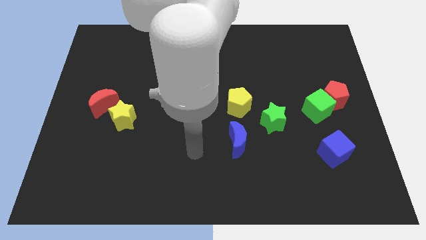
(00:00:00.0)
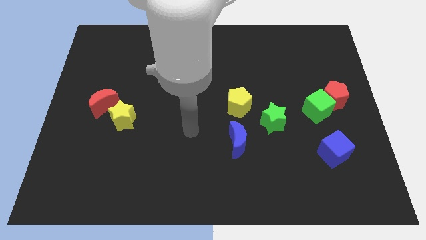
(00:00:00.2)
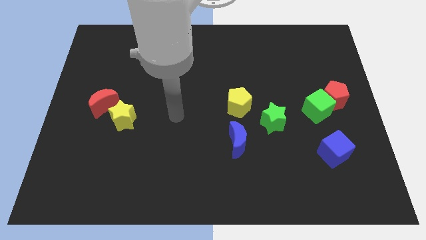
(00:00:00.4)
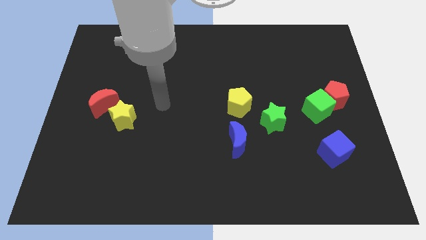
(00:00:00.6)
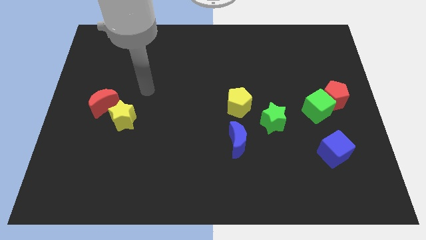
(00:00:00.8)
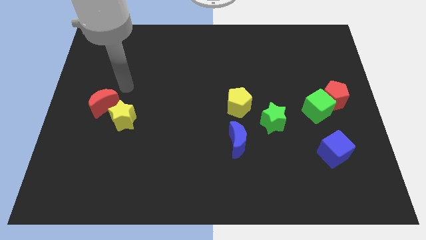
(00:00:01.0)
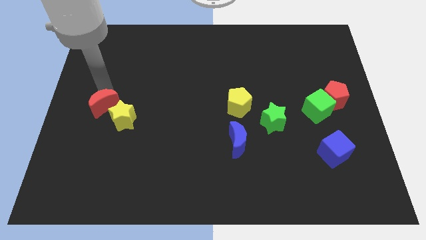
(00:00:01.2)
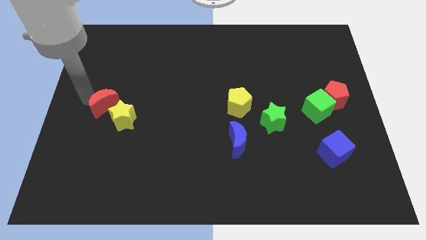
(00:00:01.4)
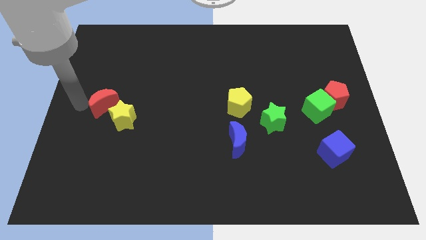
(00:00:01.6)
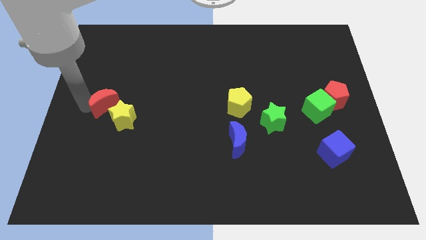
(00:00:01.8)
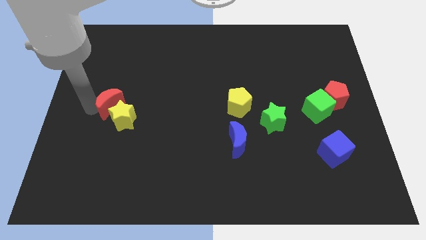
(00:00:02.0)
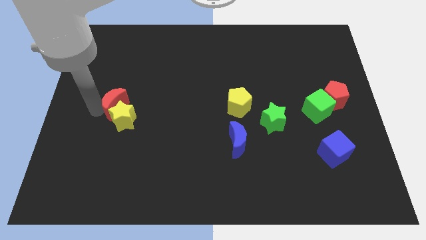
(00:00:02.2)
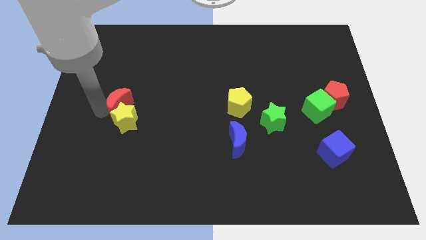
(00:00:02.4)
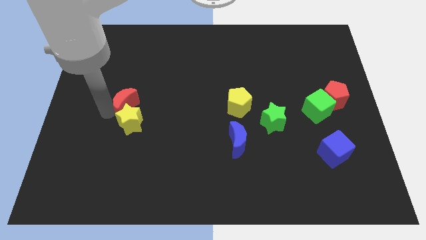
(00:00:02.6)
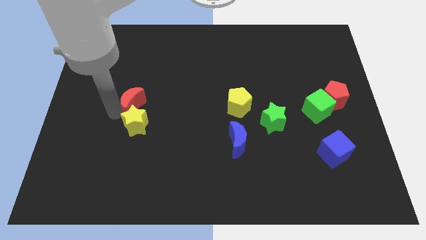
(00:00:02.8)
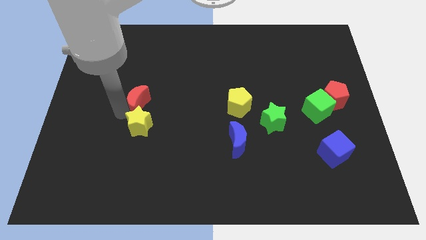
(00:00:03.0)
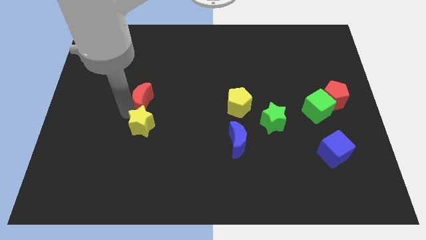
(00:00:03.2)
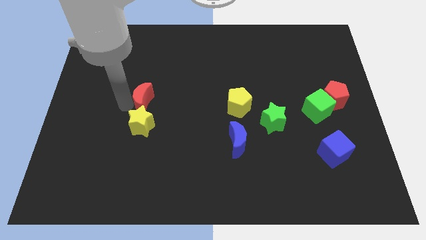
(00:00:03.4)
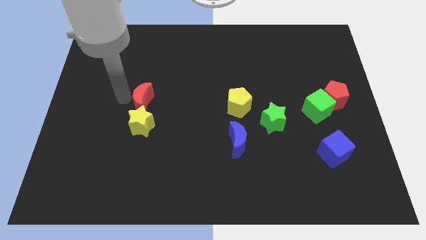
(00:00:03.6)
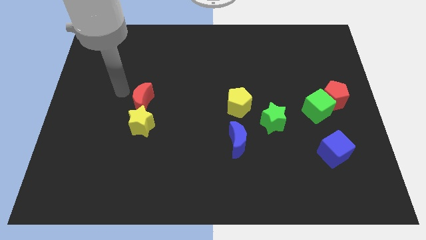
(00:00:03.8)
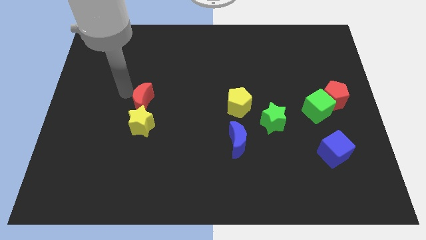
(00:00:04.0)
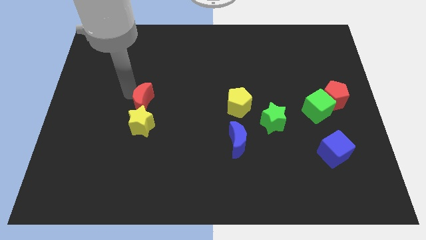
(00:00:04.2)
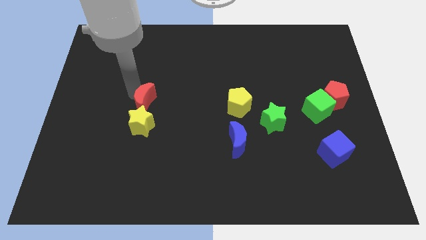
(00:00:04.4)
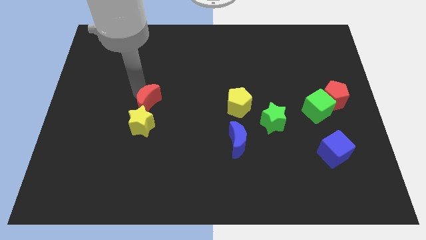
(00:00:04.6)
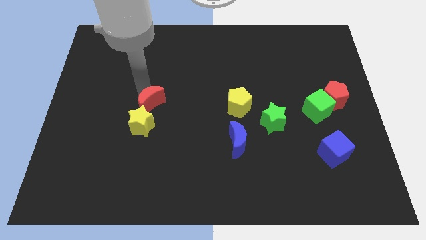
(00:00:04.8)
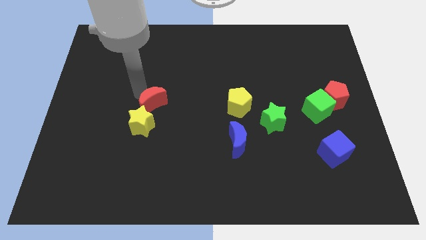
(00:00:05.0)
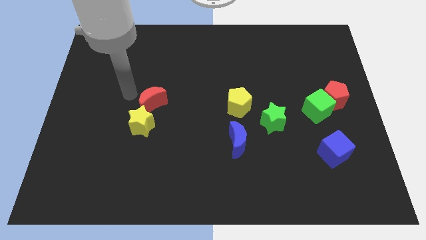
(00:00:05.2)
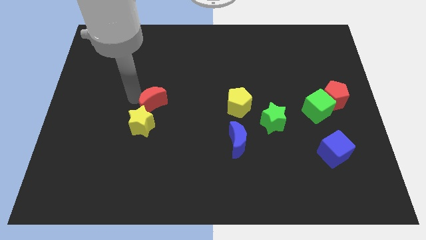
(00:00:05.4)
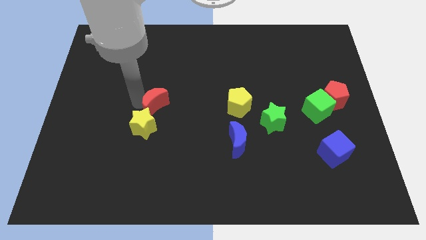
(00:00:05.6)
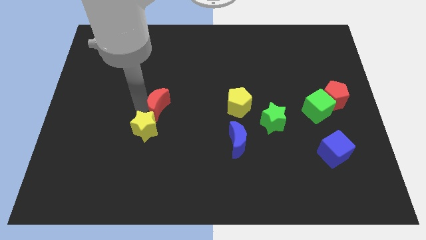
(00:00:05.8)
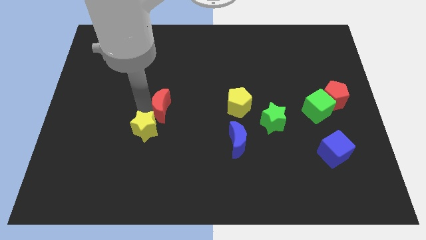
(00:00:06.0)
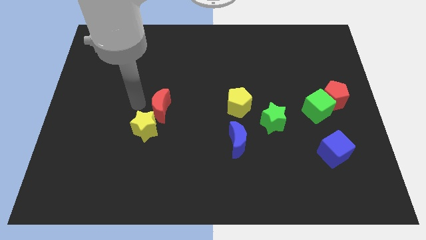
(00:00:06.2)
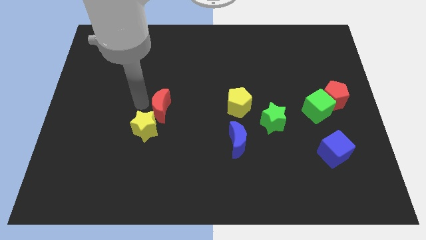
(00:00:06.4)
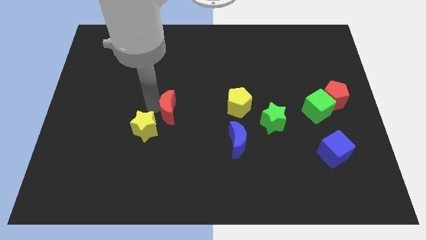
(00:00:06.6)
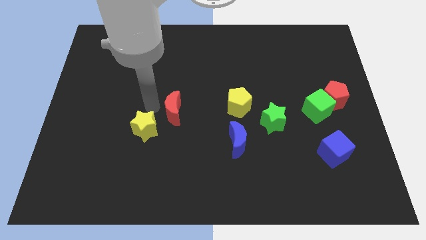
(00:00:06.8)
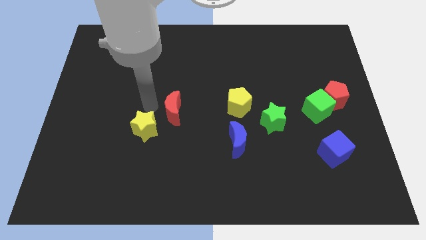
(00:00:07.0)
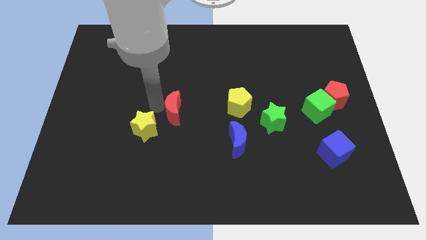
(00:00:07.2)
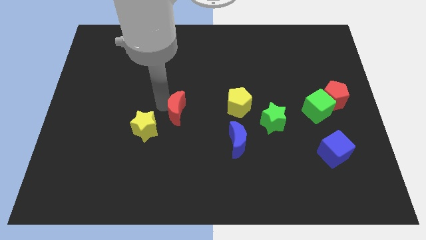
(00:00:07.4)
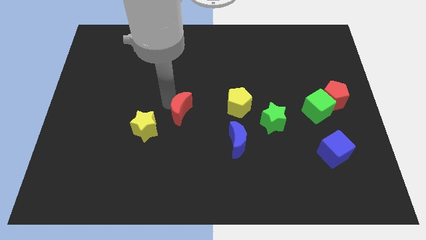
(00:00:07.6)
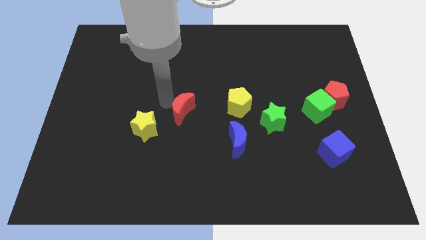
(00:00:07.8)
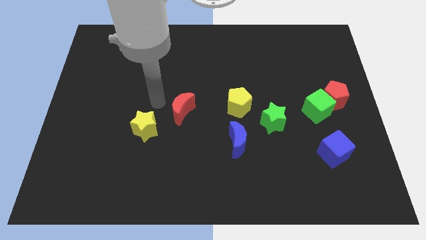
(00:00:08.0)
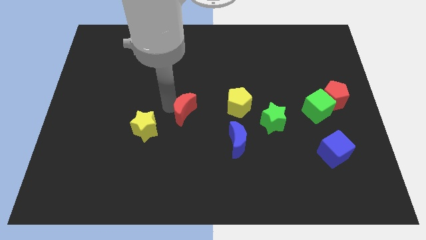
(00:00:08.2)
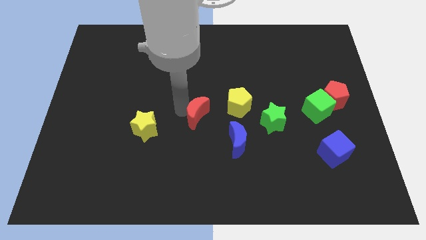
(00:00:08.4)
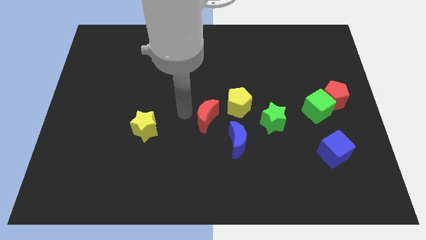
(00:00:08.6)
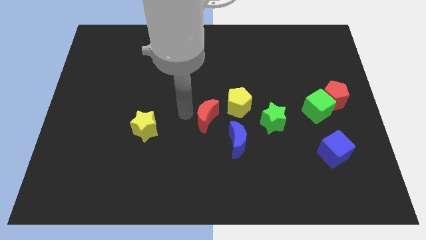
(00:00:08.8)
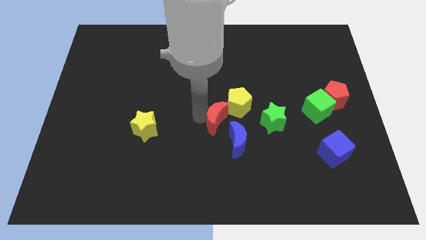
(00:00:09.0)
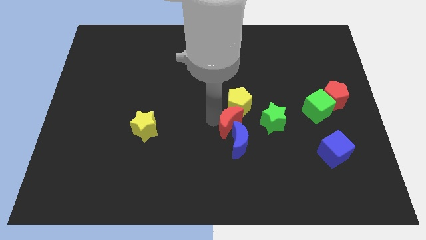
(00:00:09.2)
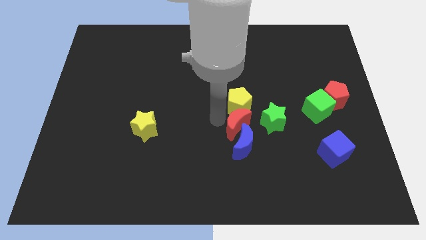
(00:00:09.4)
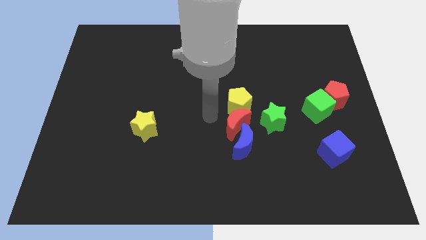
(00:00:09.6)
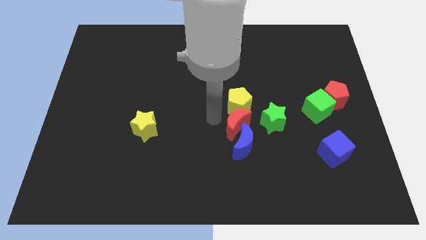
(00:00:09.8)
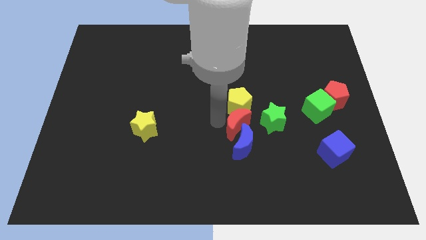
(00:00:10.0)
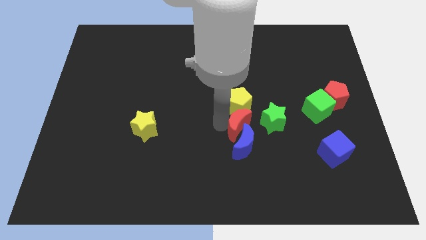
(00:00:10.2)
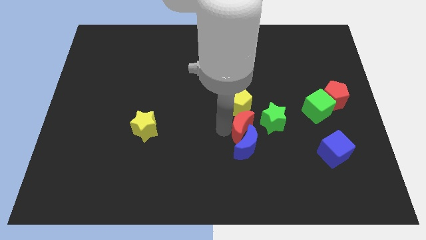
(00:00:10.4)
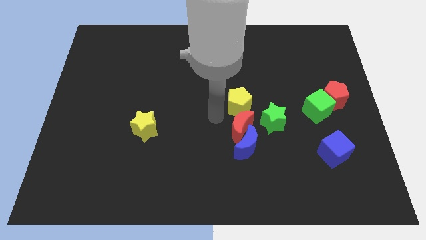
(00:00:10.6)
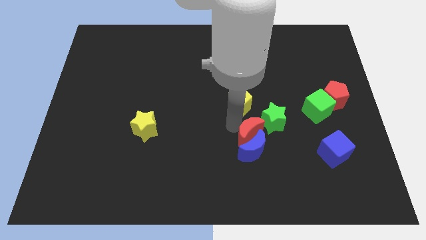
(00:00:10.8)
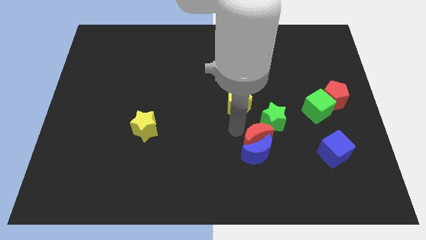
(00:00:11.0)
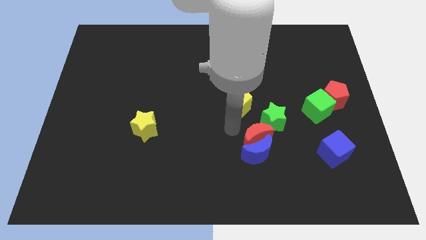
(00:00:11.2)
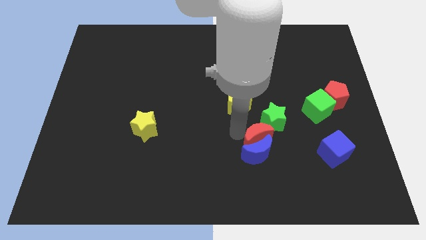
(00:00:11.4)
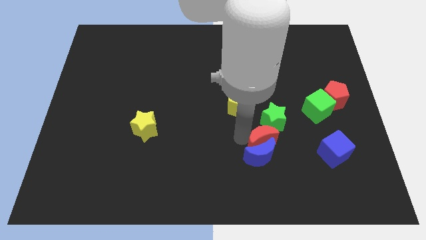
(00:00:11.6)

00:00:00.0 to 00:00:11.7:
move the red moon just left of the blue cube

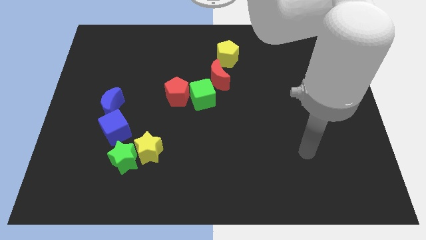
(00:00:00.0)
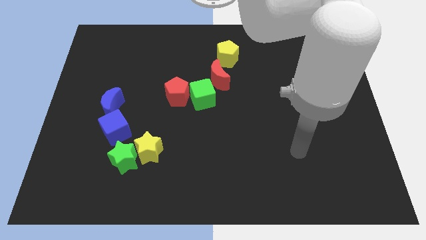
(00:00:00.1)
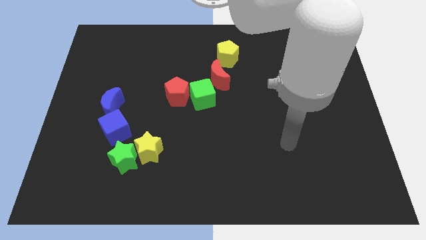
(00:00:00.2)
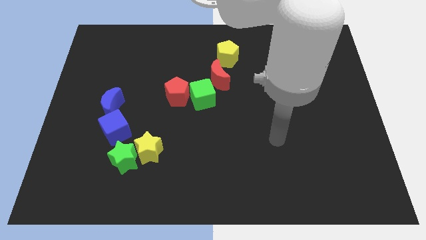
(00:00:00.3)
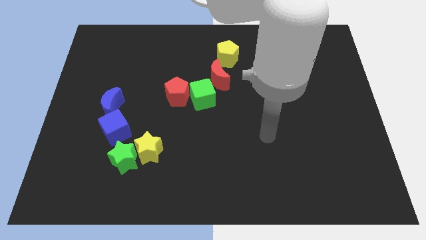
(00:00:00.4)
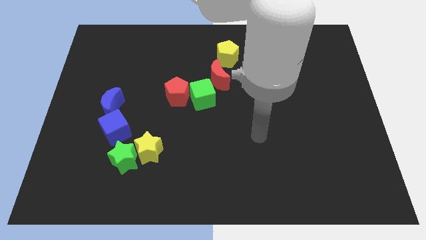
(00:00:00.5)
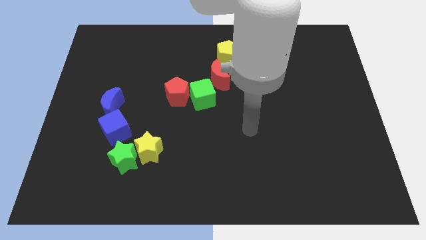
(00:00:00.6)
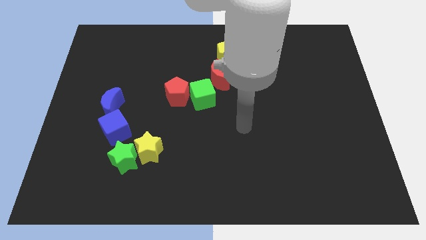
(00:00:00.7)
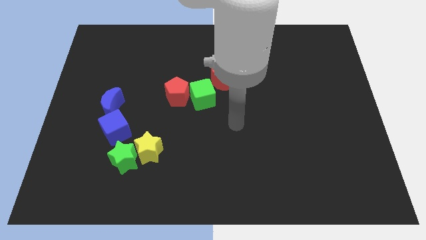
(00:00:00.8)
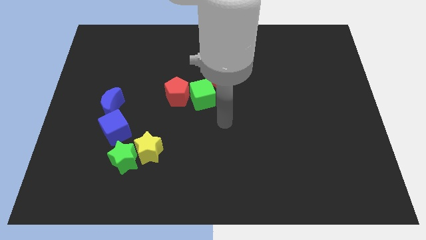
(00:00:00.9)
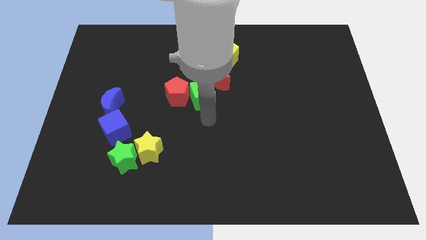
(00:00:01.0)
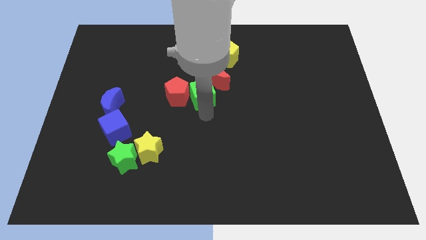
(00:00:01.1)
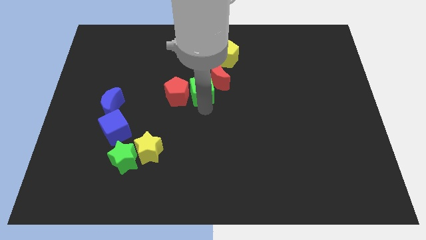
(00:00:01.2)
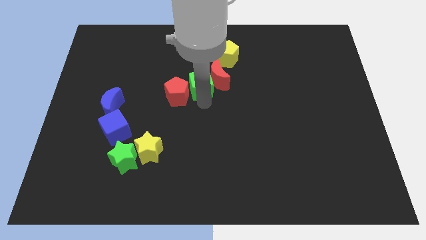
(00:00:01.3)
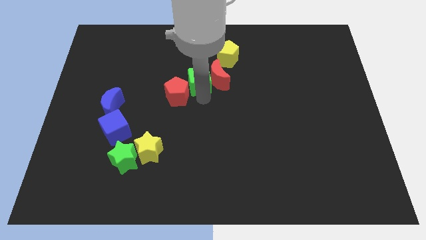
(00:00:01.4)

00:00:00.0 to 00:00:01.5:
push the green cube diagonally up and to the left of the red moon
